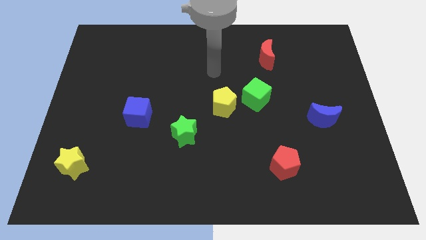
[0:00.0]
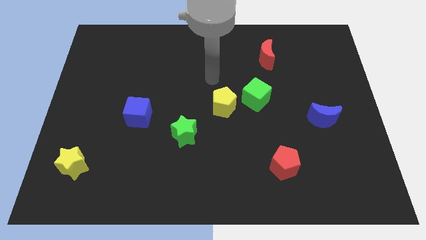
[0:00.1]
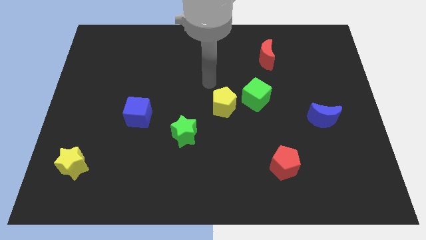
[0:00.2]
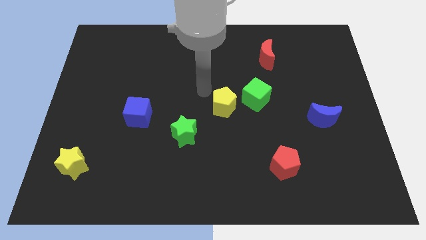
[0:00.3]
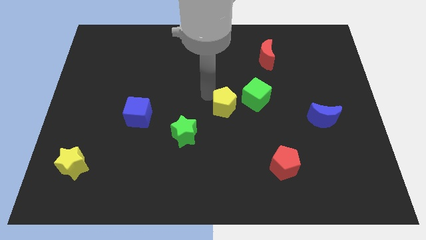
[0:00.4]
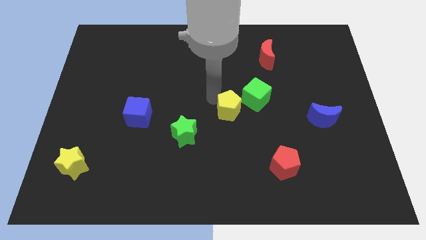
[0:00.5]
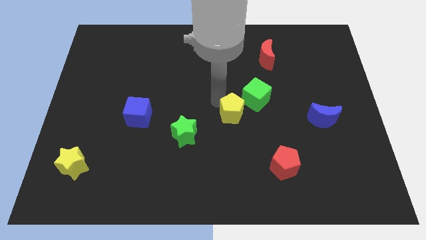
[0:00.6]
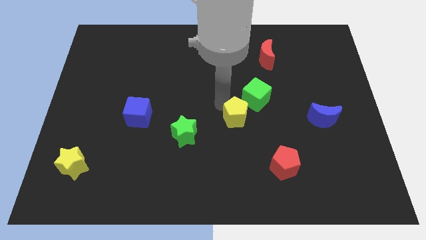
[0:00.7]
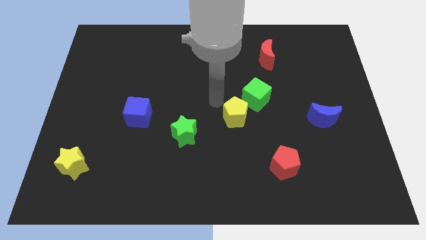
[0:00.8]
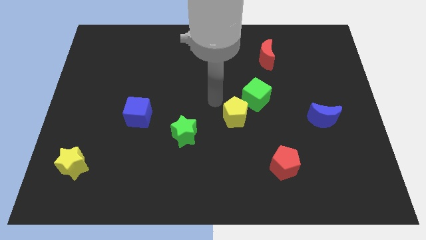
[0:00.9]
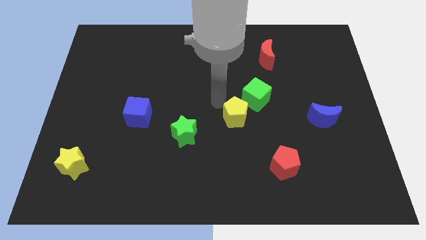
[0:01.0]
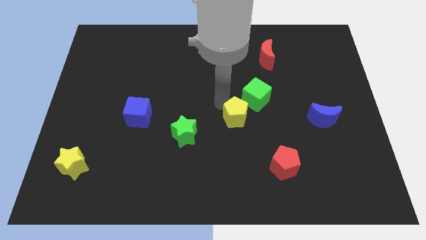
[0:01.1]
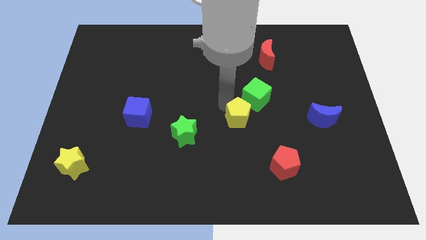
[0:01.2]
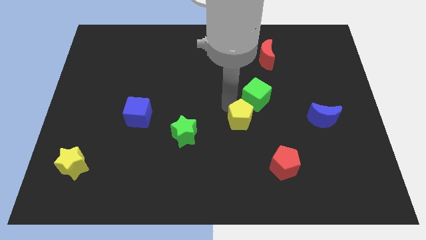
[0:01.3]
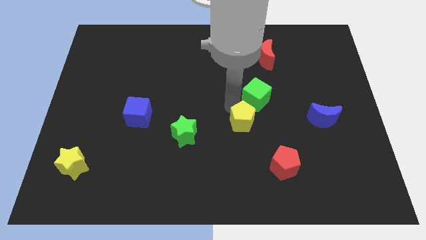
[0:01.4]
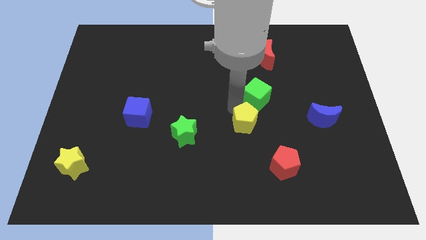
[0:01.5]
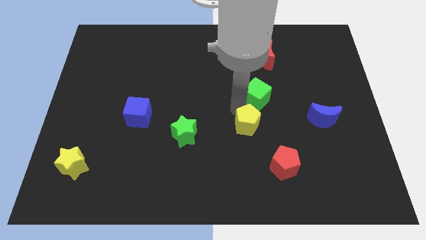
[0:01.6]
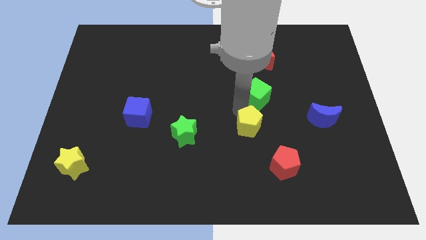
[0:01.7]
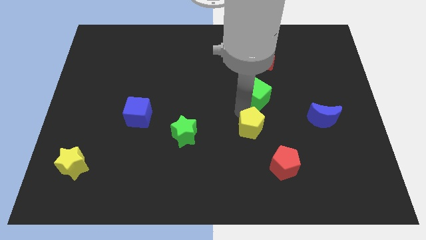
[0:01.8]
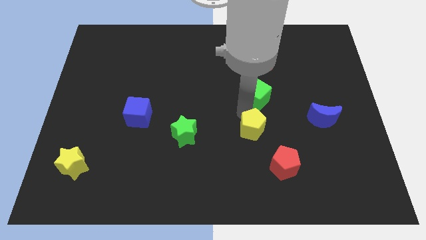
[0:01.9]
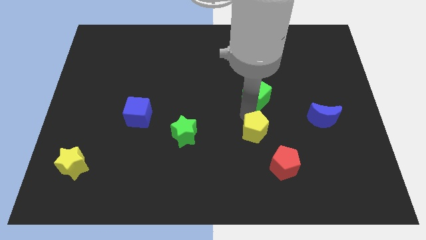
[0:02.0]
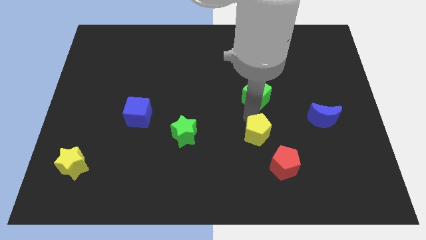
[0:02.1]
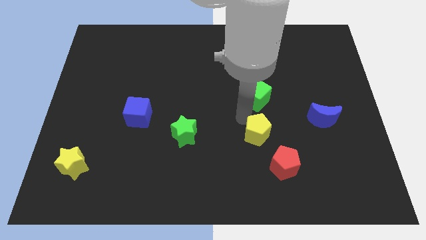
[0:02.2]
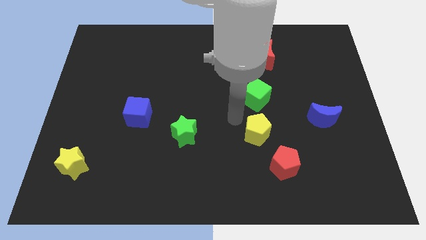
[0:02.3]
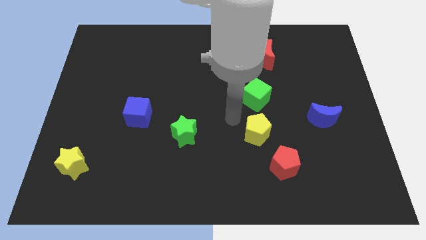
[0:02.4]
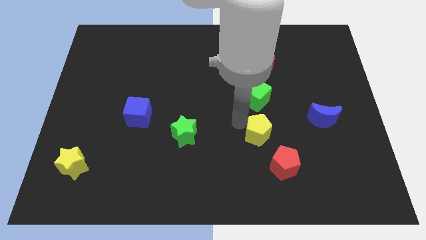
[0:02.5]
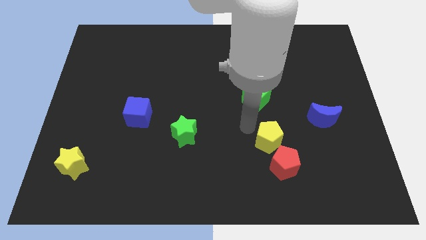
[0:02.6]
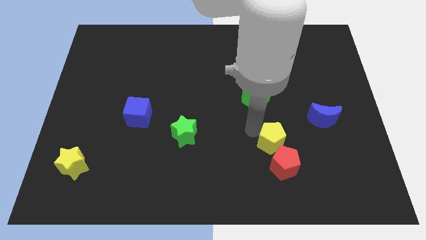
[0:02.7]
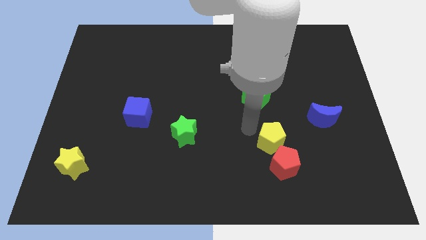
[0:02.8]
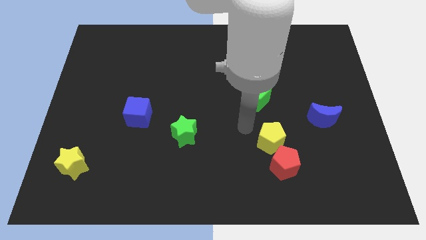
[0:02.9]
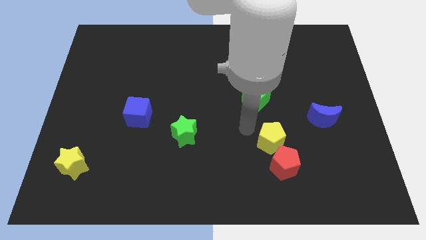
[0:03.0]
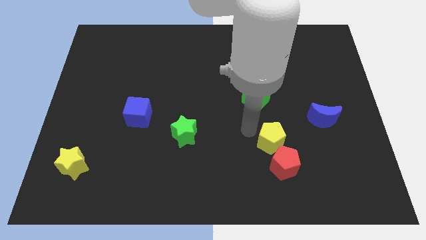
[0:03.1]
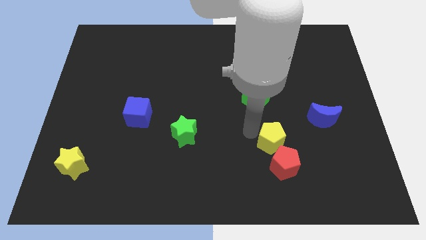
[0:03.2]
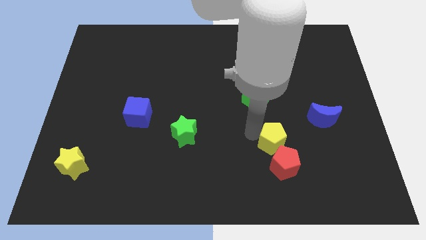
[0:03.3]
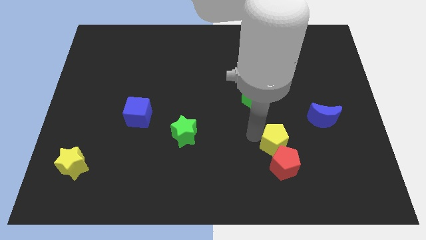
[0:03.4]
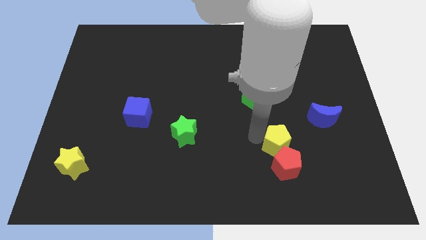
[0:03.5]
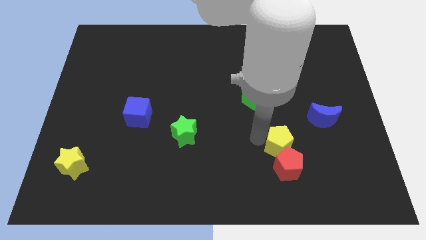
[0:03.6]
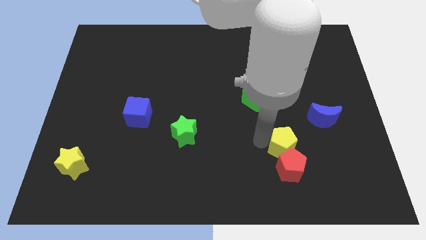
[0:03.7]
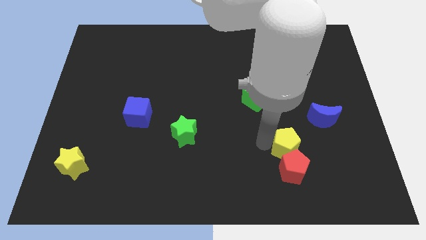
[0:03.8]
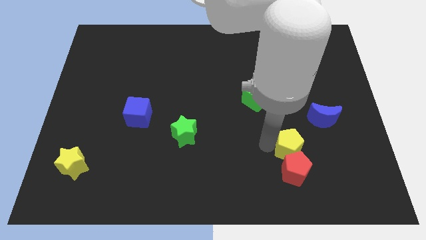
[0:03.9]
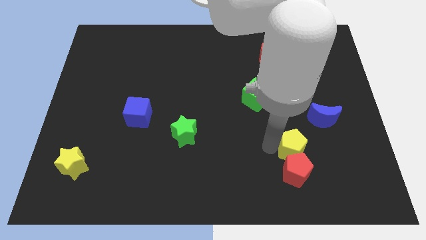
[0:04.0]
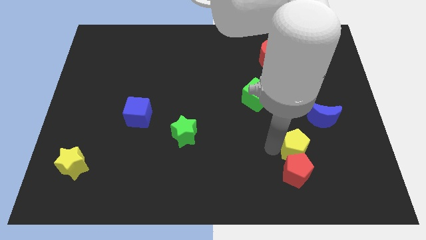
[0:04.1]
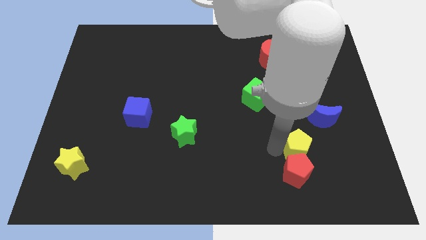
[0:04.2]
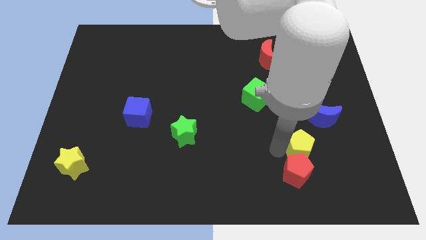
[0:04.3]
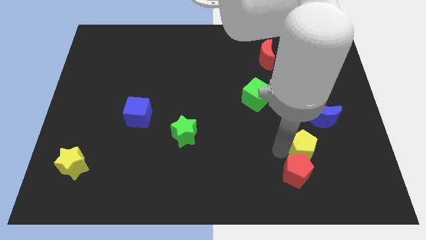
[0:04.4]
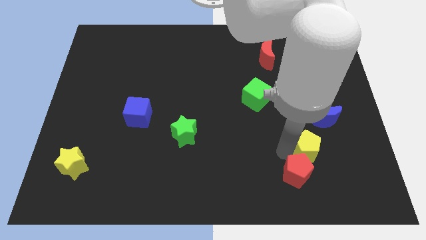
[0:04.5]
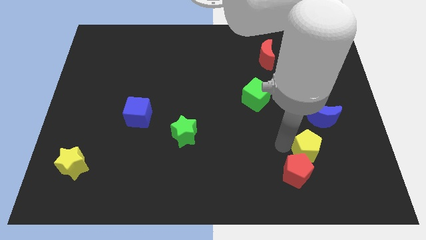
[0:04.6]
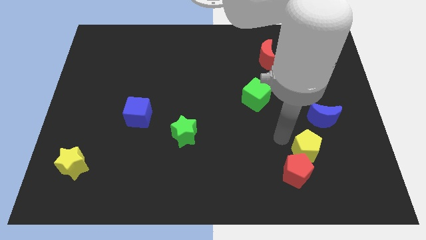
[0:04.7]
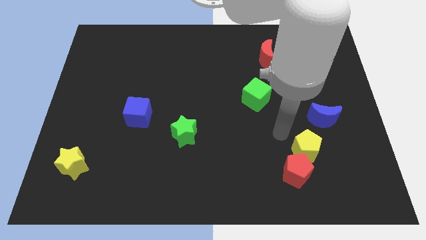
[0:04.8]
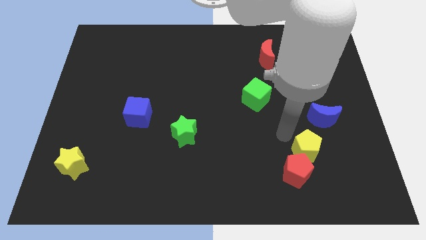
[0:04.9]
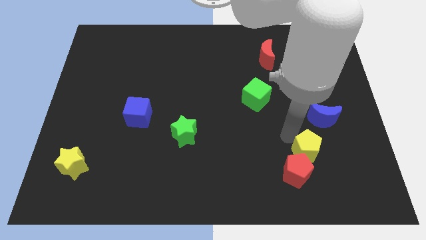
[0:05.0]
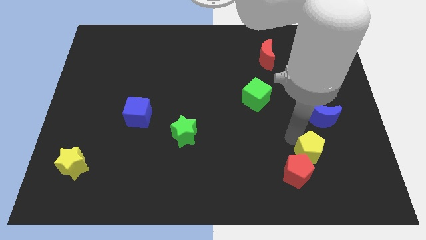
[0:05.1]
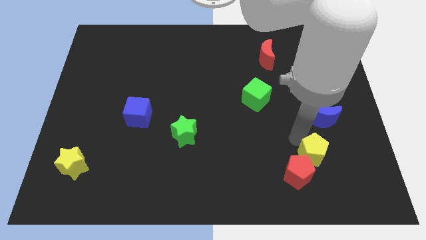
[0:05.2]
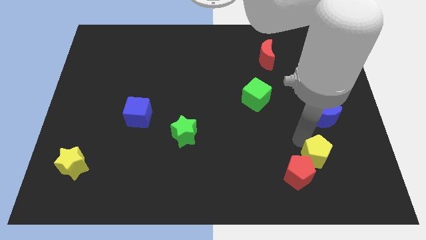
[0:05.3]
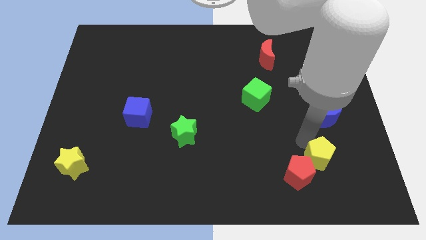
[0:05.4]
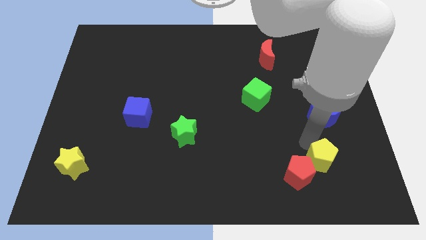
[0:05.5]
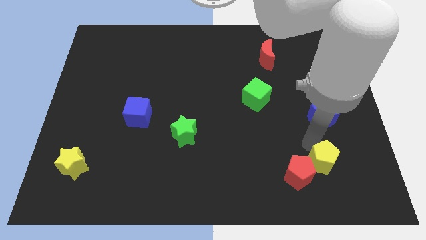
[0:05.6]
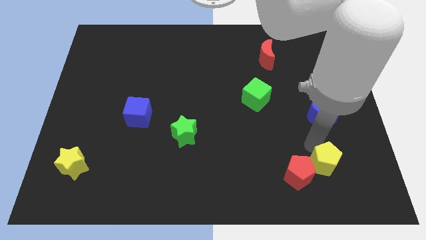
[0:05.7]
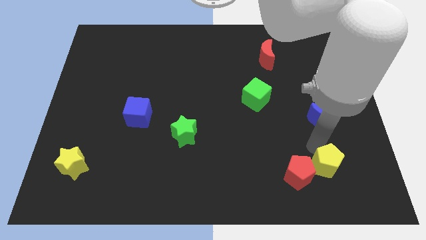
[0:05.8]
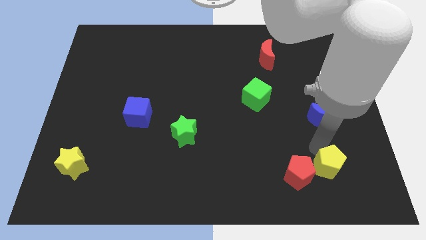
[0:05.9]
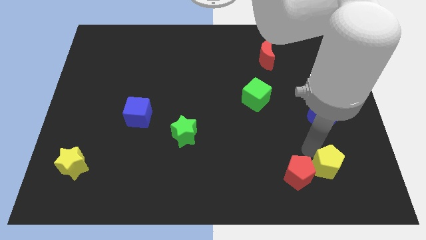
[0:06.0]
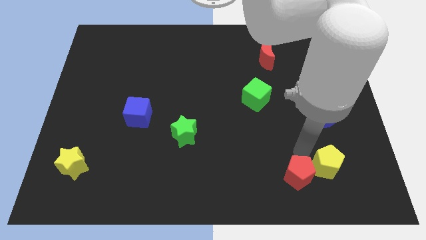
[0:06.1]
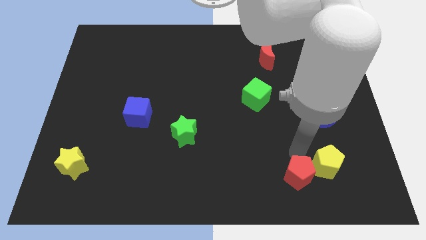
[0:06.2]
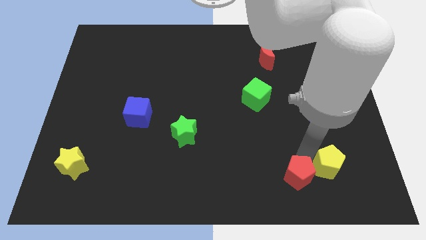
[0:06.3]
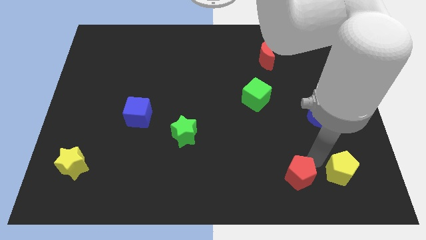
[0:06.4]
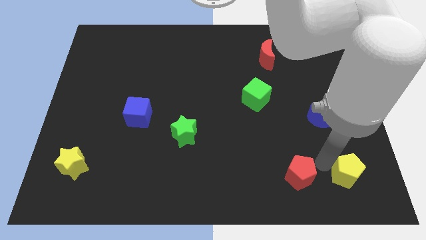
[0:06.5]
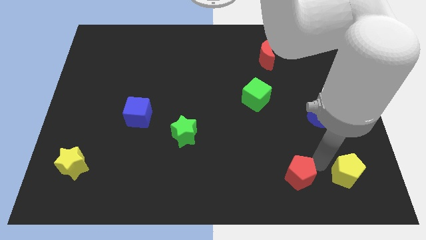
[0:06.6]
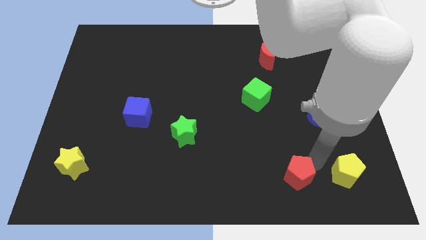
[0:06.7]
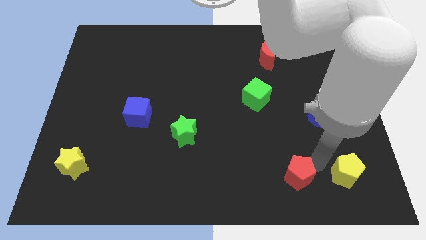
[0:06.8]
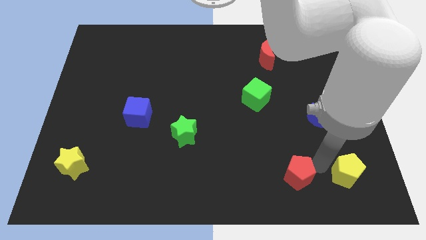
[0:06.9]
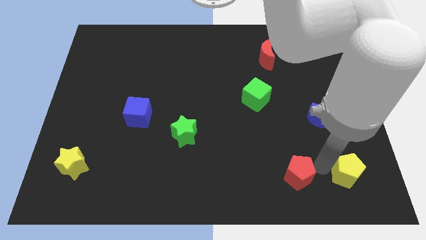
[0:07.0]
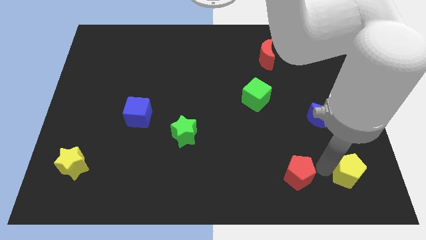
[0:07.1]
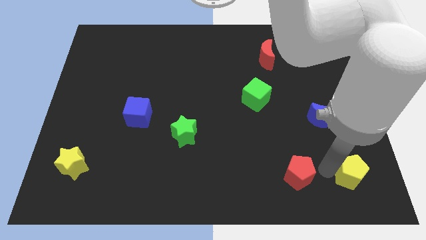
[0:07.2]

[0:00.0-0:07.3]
slide the yellow pentagon to the bottom right corner
